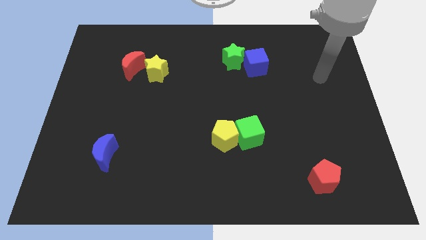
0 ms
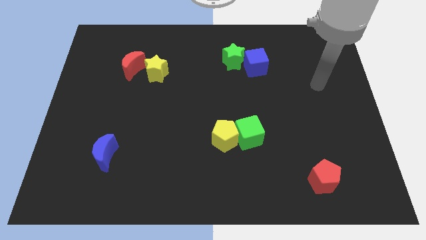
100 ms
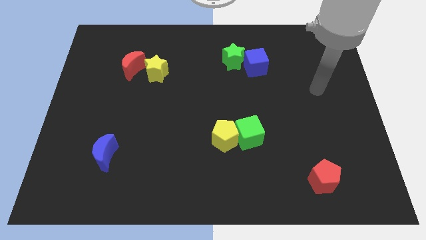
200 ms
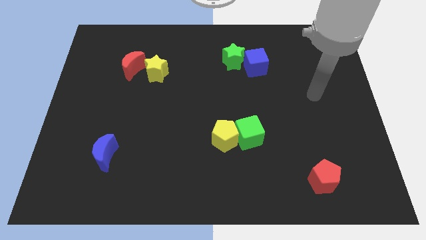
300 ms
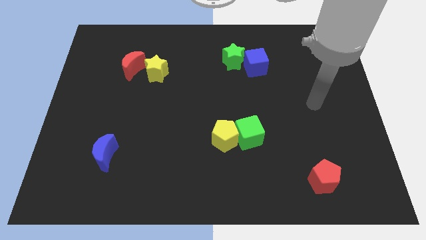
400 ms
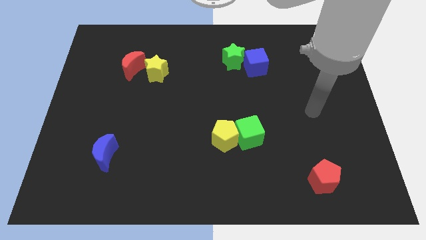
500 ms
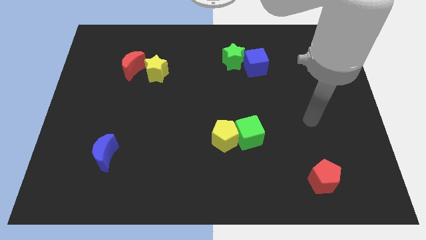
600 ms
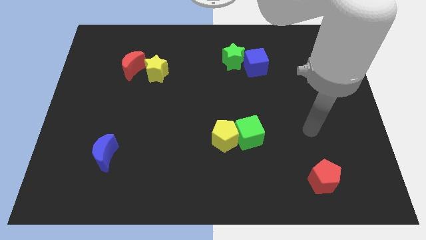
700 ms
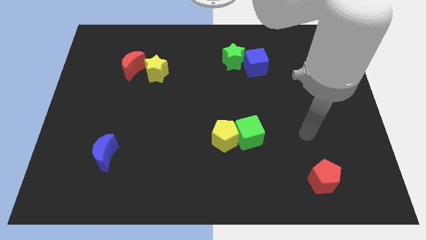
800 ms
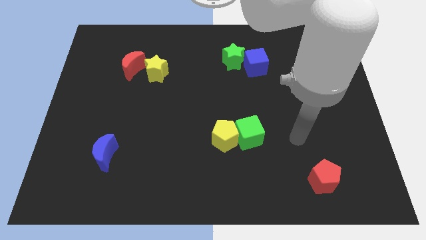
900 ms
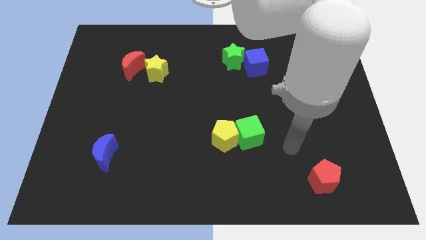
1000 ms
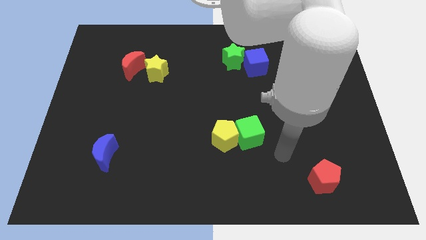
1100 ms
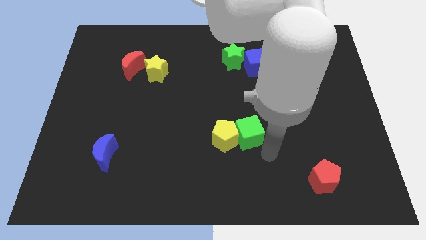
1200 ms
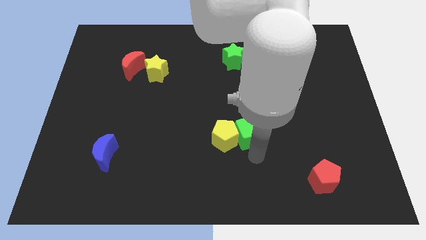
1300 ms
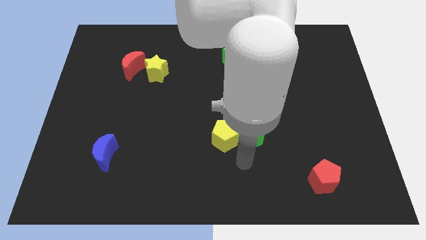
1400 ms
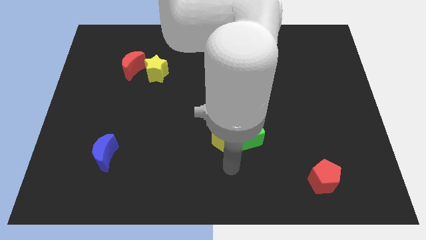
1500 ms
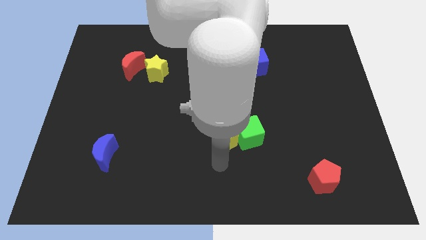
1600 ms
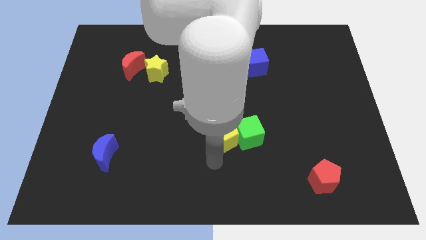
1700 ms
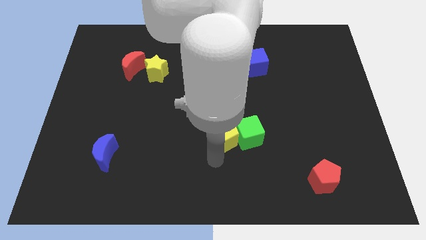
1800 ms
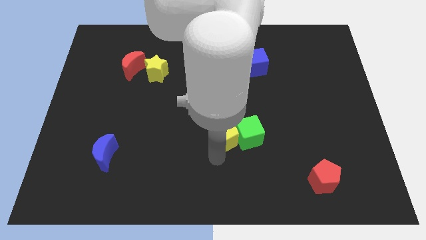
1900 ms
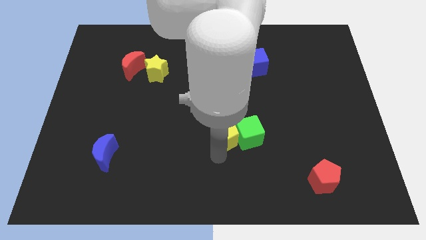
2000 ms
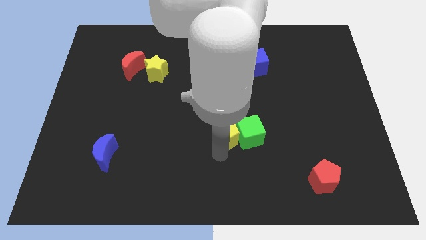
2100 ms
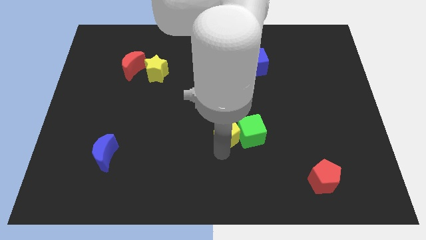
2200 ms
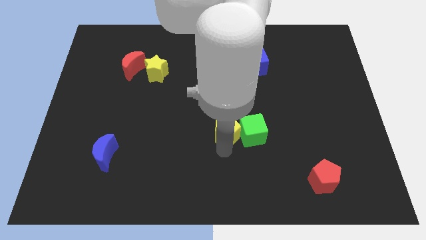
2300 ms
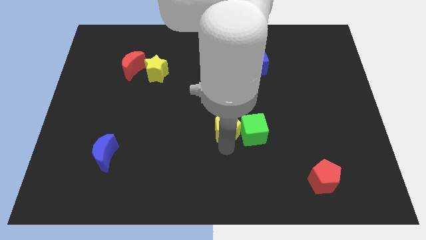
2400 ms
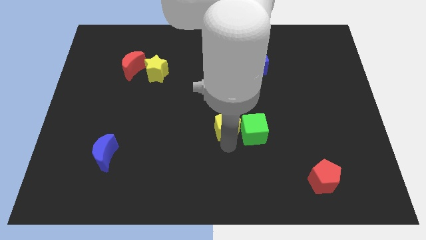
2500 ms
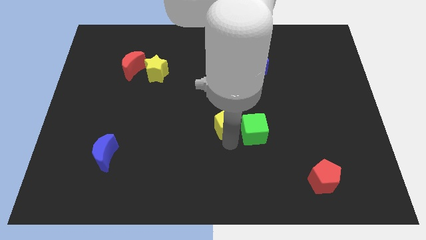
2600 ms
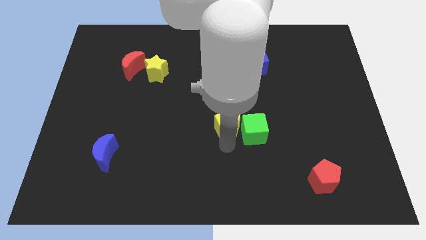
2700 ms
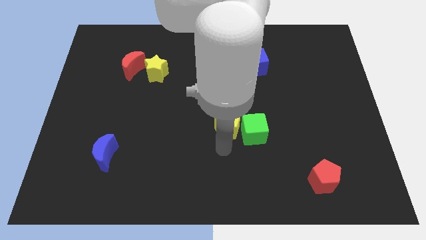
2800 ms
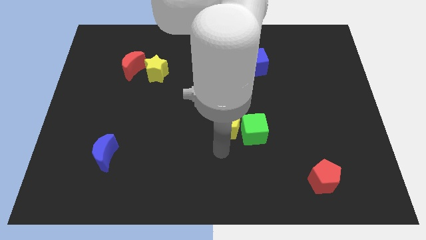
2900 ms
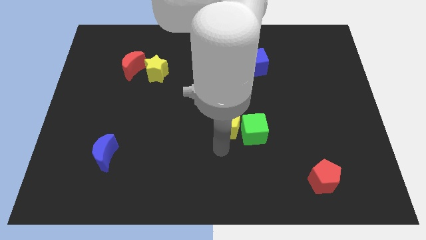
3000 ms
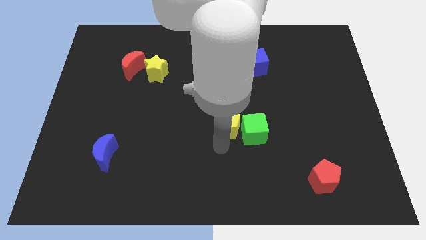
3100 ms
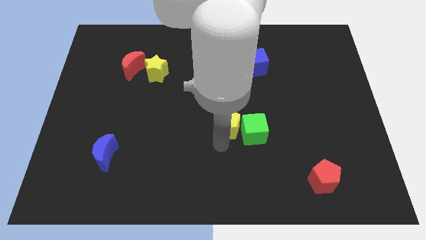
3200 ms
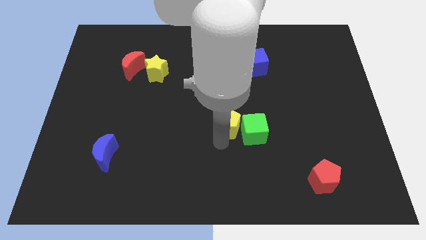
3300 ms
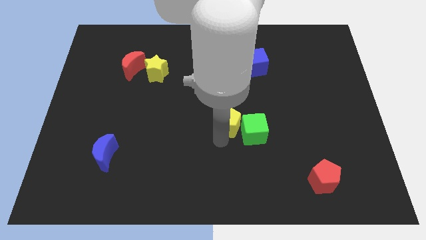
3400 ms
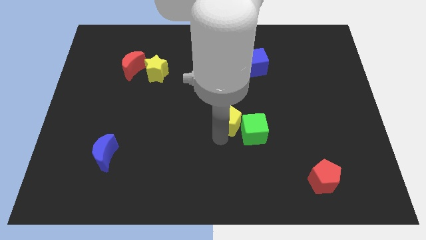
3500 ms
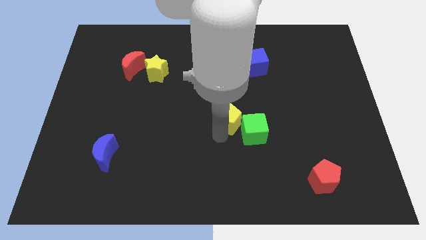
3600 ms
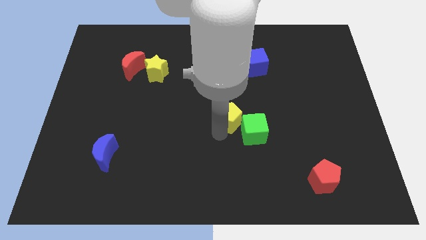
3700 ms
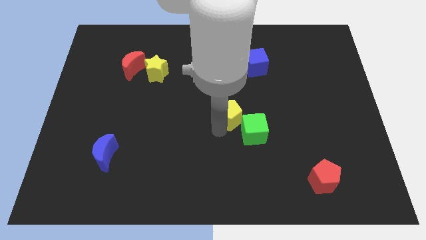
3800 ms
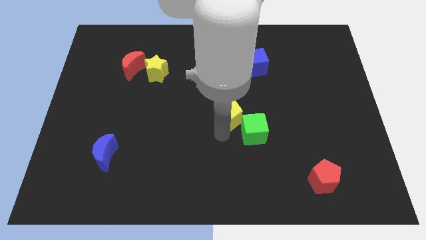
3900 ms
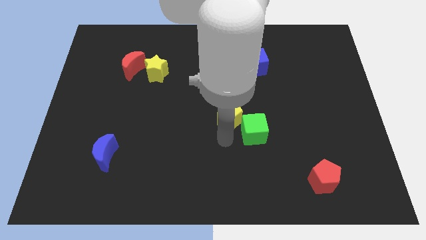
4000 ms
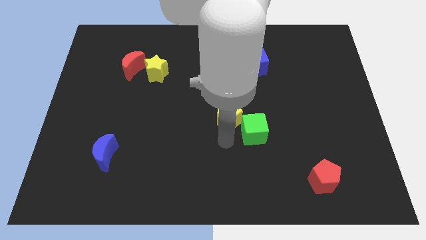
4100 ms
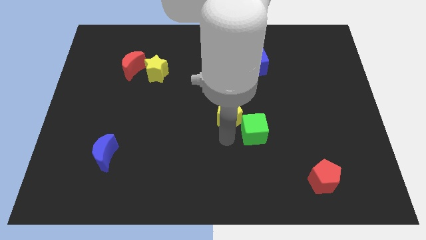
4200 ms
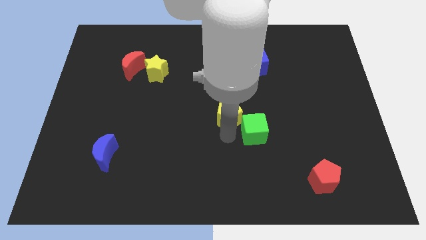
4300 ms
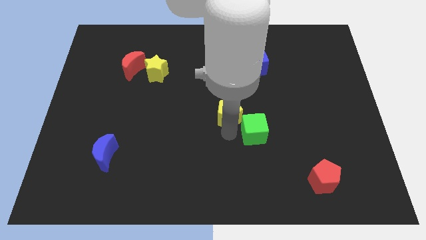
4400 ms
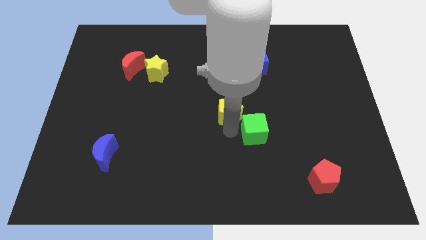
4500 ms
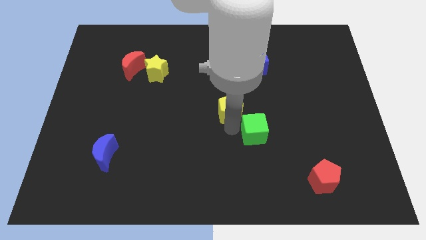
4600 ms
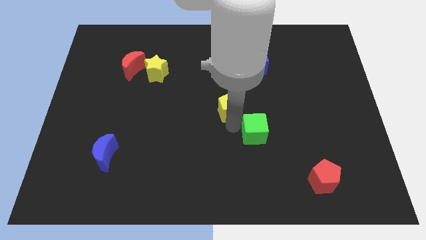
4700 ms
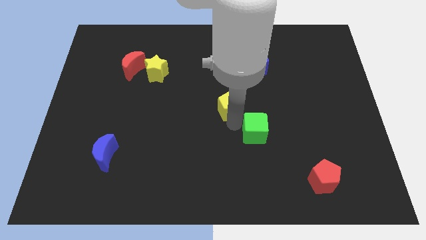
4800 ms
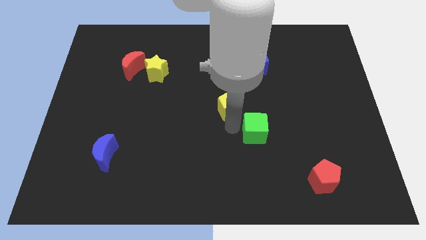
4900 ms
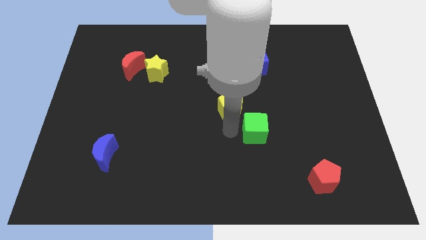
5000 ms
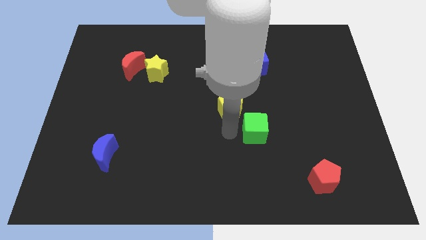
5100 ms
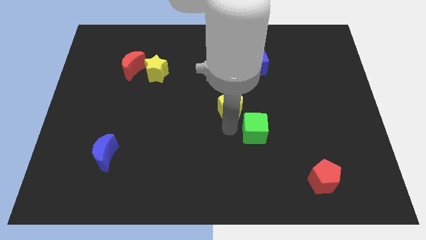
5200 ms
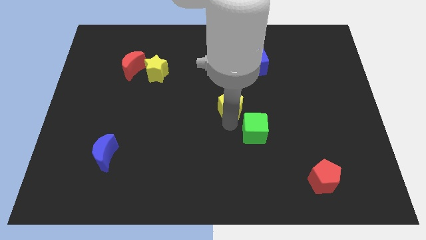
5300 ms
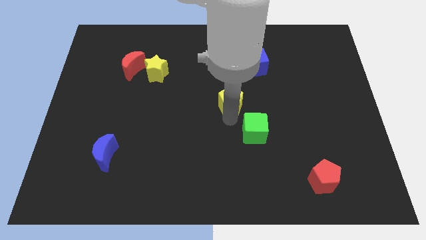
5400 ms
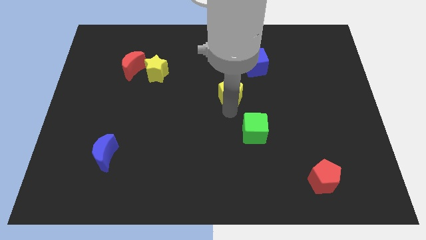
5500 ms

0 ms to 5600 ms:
put the yellow pentagon to the bottom left side of the blue cube

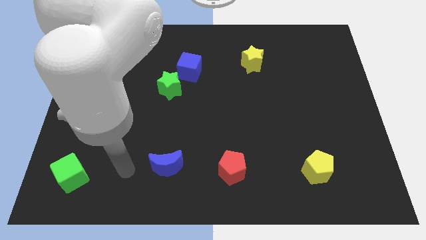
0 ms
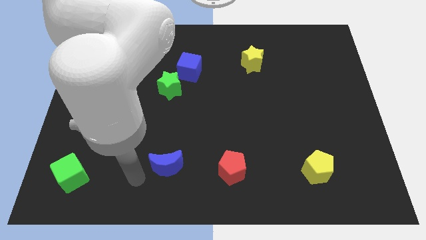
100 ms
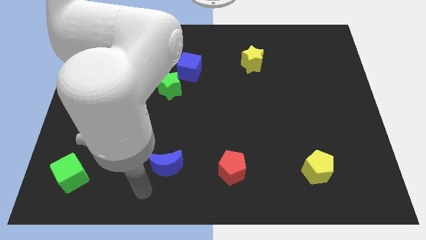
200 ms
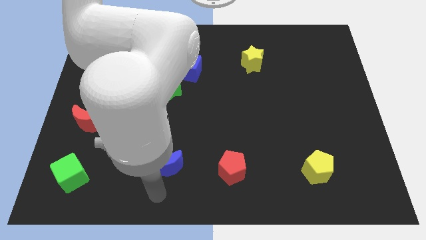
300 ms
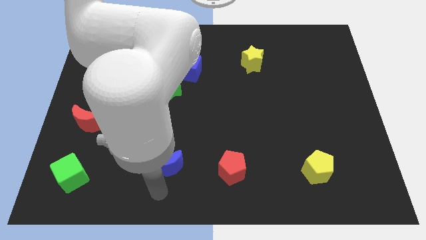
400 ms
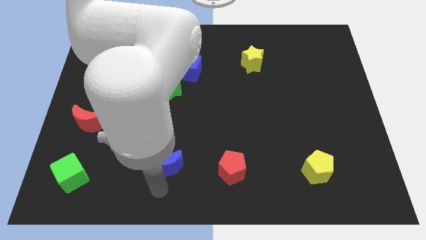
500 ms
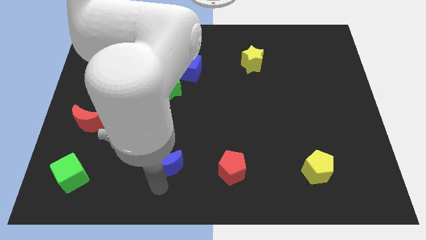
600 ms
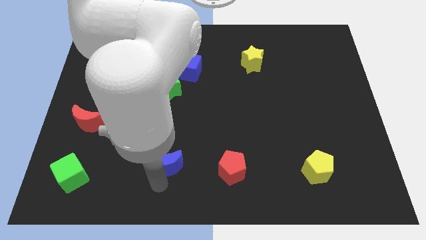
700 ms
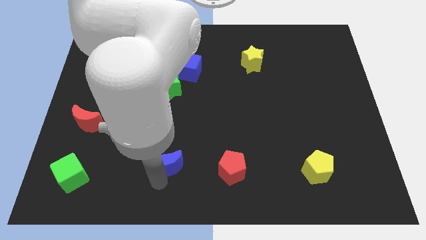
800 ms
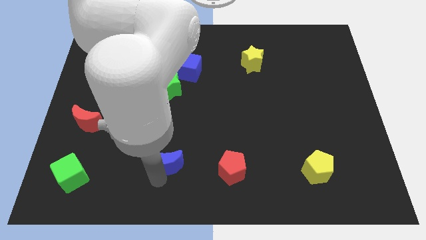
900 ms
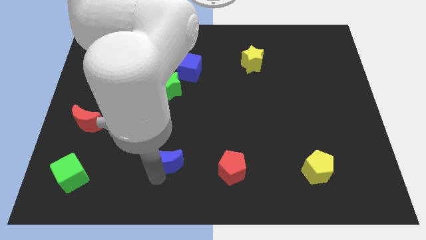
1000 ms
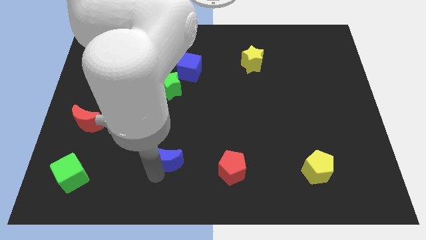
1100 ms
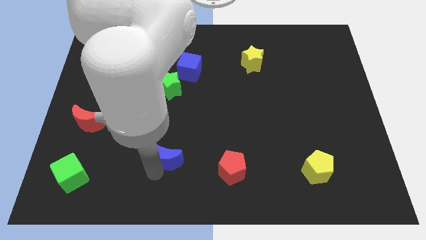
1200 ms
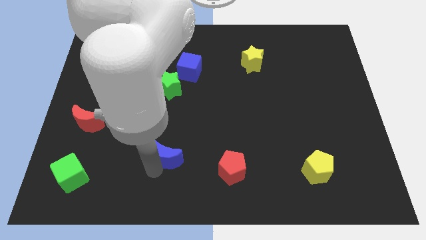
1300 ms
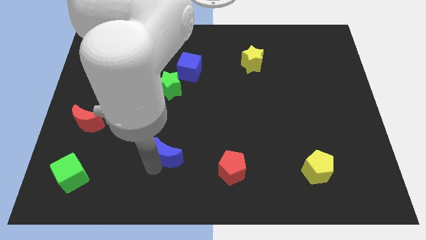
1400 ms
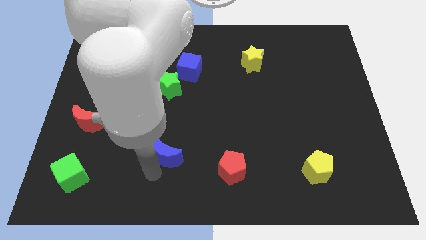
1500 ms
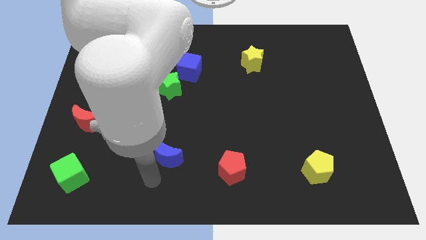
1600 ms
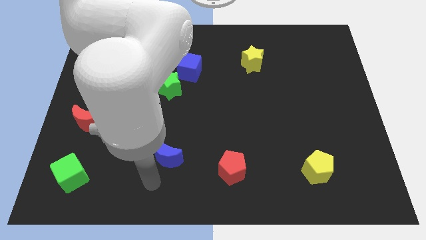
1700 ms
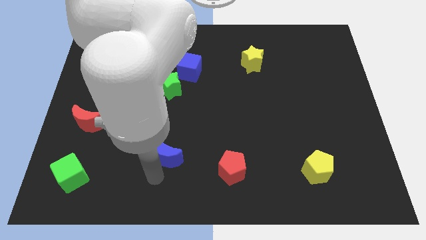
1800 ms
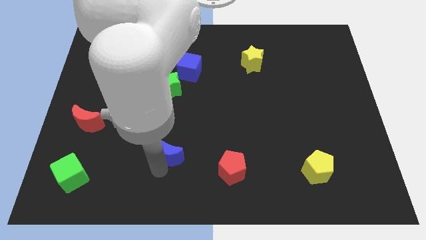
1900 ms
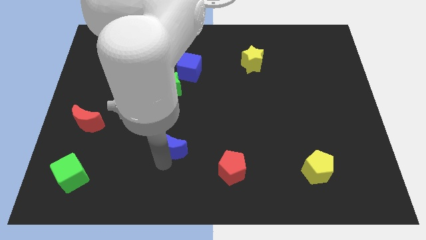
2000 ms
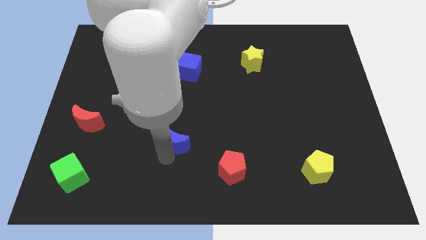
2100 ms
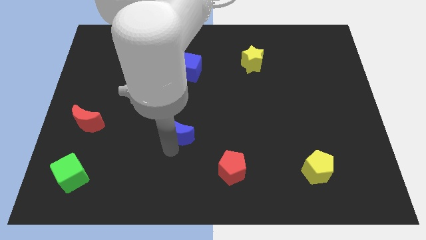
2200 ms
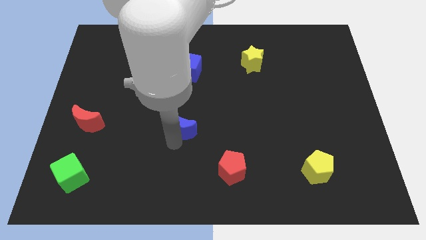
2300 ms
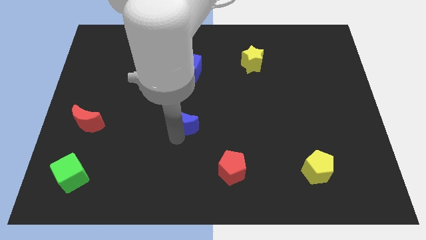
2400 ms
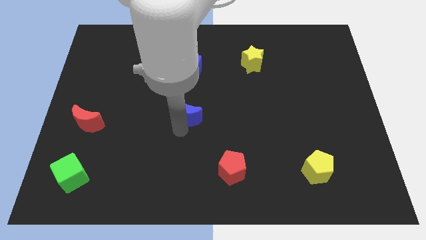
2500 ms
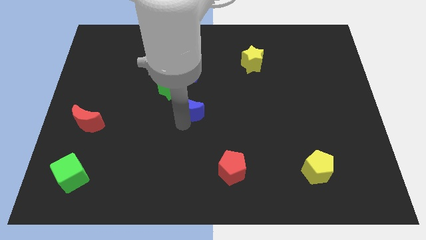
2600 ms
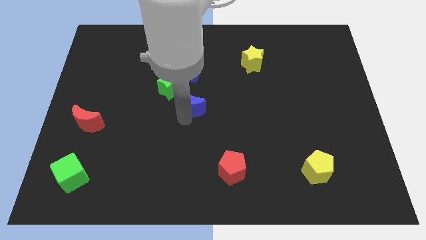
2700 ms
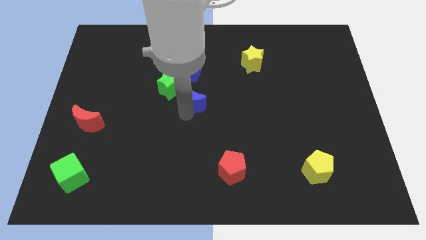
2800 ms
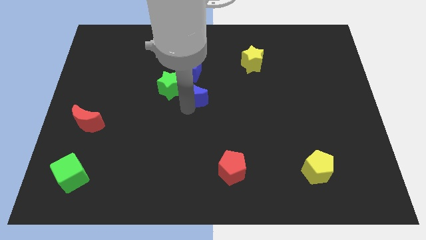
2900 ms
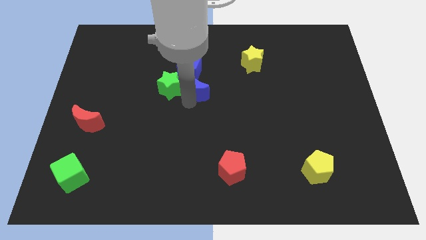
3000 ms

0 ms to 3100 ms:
put the blue moon diagonally down and to the right of the blue cube
